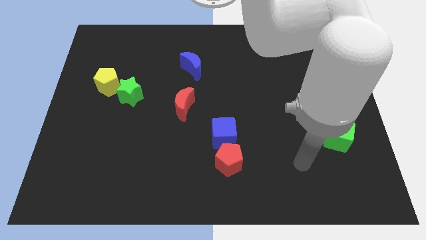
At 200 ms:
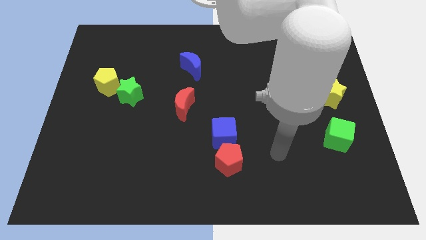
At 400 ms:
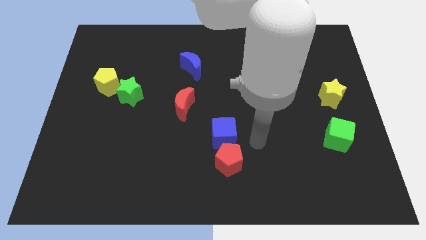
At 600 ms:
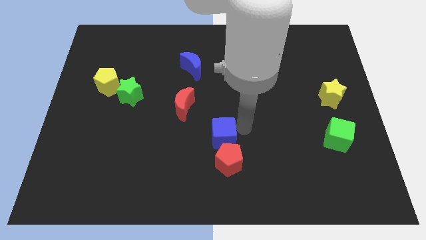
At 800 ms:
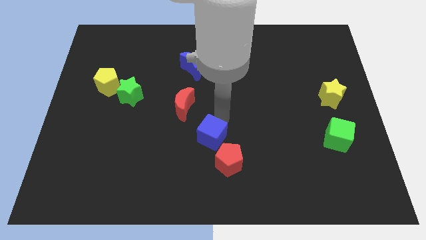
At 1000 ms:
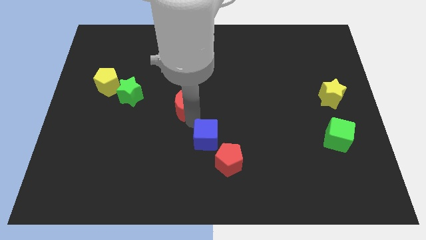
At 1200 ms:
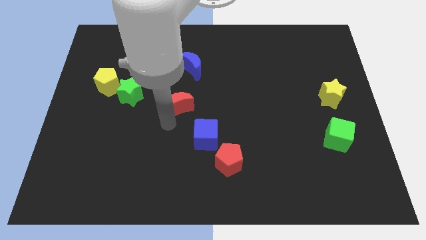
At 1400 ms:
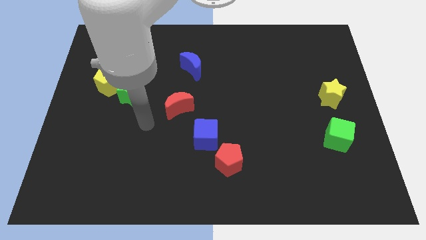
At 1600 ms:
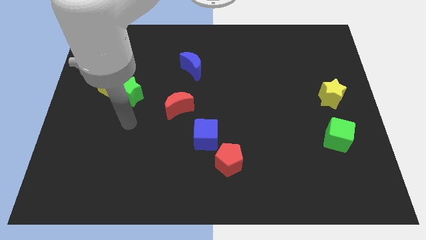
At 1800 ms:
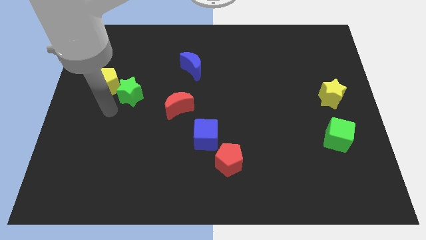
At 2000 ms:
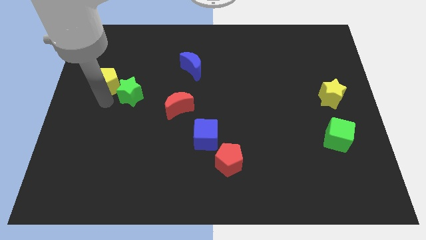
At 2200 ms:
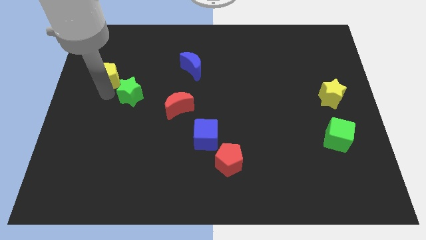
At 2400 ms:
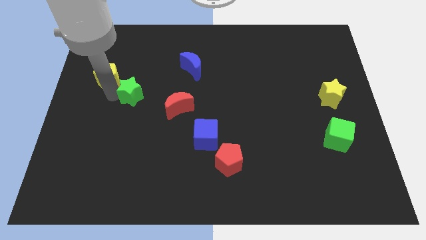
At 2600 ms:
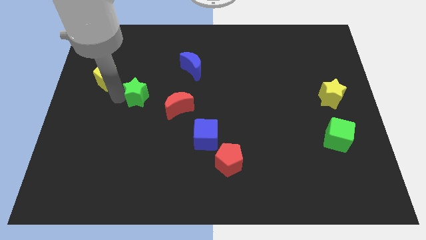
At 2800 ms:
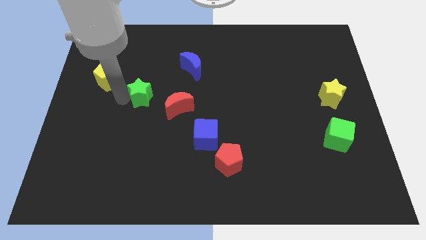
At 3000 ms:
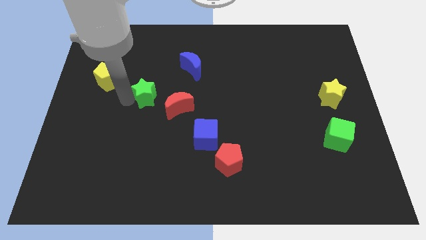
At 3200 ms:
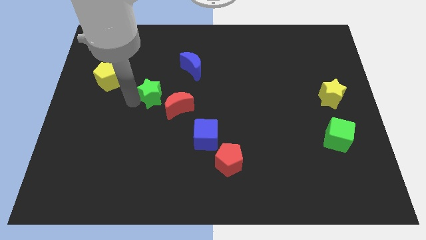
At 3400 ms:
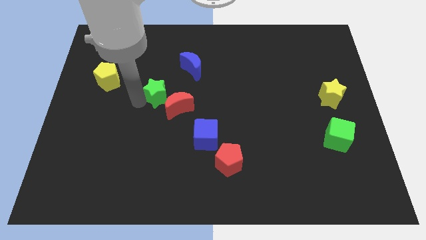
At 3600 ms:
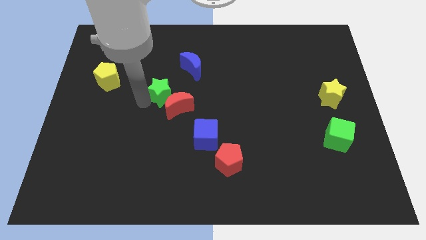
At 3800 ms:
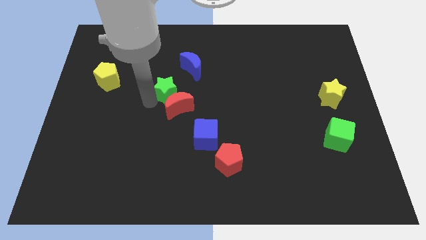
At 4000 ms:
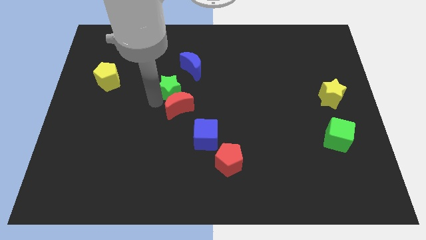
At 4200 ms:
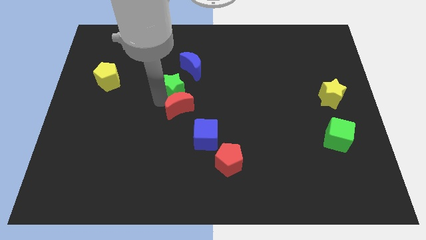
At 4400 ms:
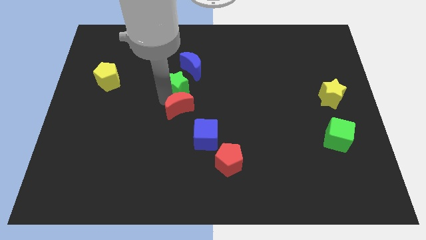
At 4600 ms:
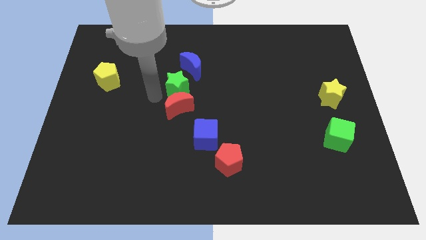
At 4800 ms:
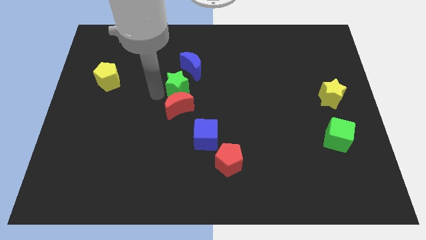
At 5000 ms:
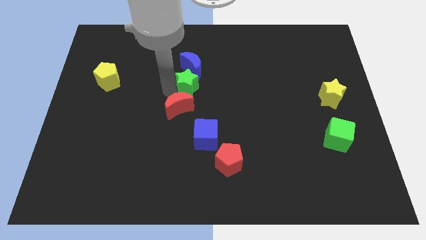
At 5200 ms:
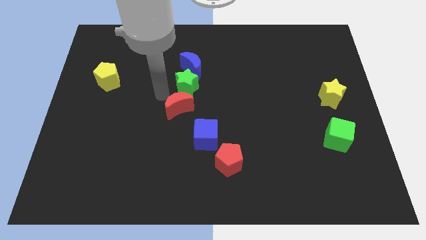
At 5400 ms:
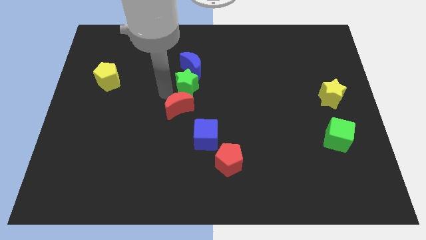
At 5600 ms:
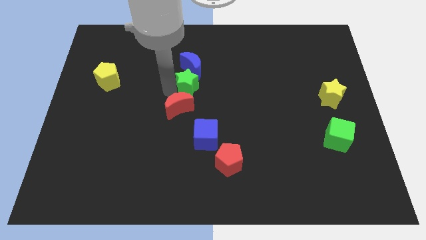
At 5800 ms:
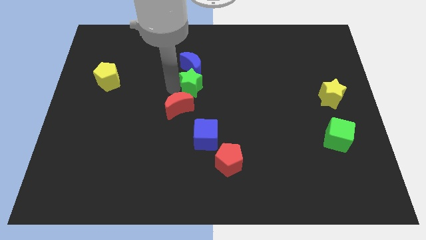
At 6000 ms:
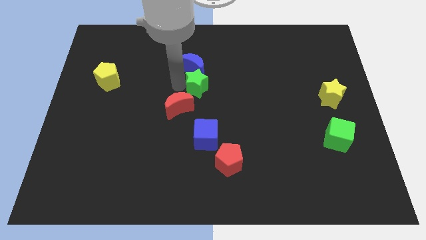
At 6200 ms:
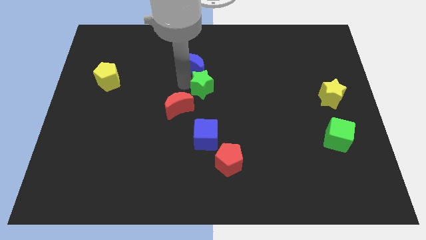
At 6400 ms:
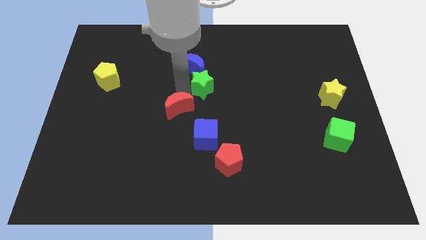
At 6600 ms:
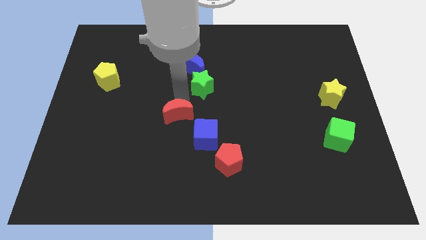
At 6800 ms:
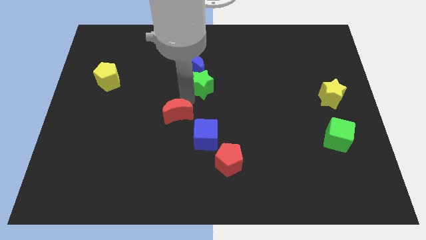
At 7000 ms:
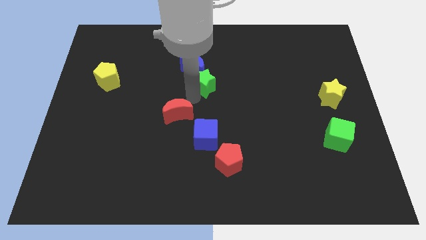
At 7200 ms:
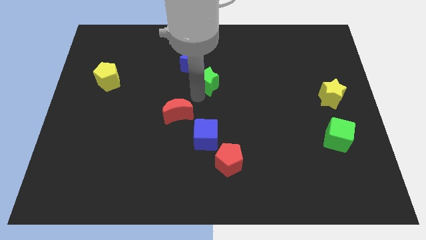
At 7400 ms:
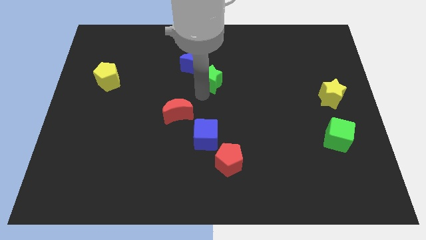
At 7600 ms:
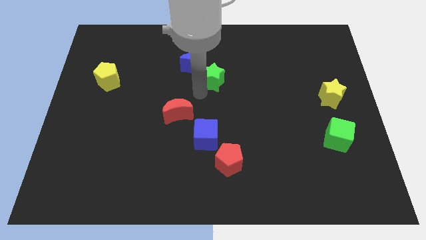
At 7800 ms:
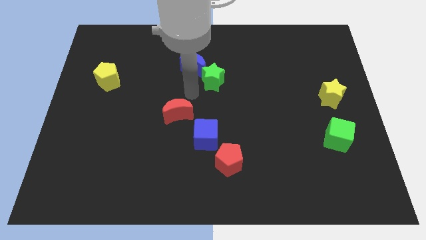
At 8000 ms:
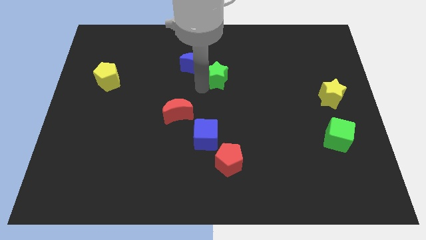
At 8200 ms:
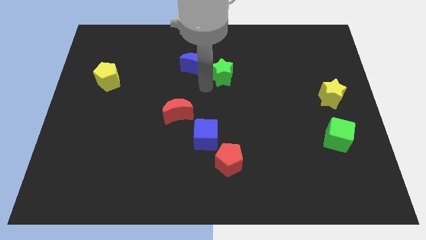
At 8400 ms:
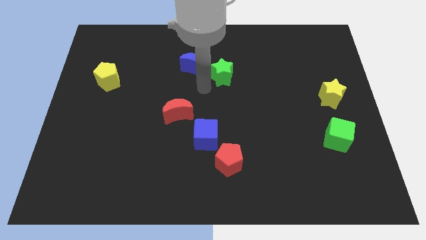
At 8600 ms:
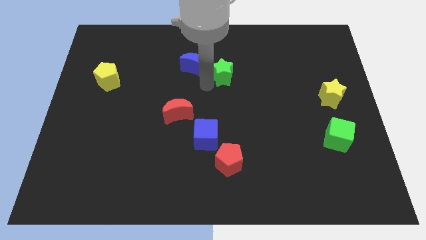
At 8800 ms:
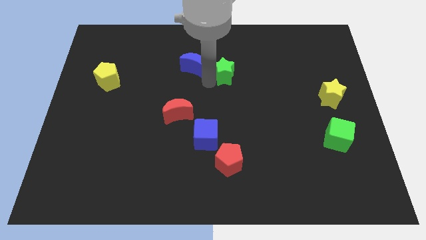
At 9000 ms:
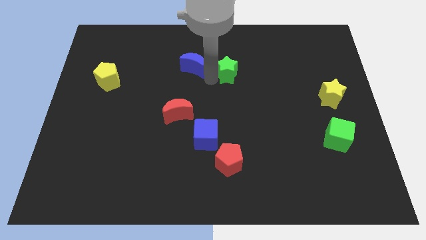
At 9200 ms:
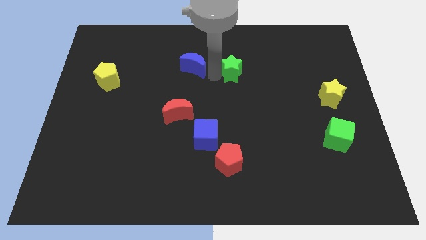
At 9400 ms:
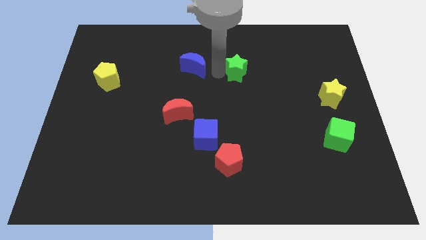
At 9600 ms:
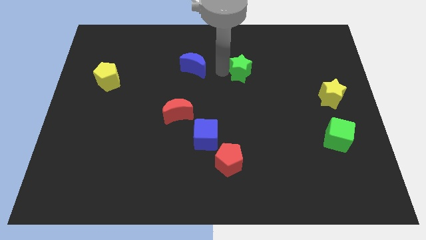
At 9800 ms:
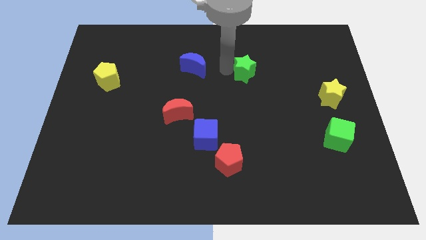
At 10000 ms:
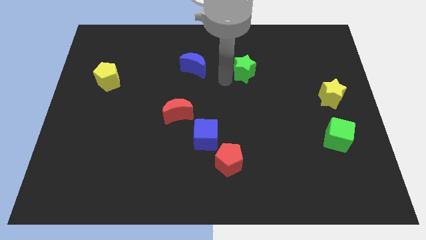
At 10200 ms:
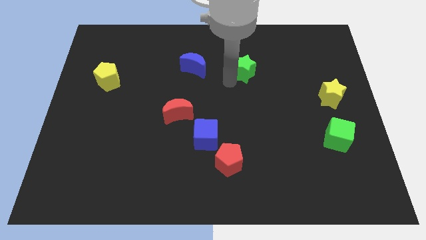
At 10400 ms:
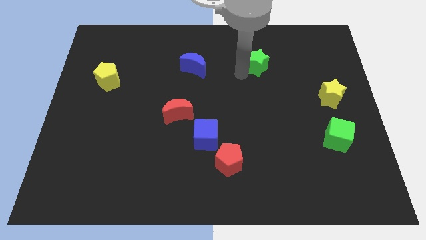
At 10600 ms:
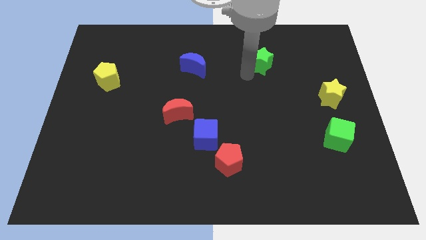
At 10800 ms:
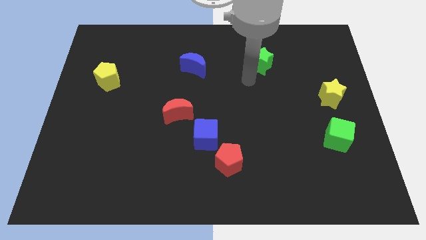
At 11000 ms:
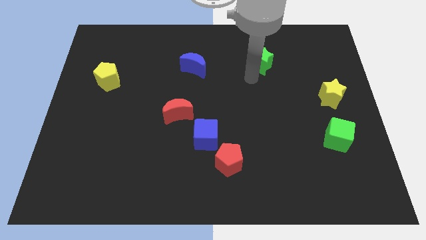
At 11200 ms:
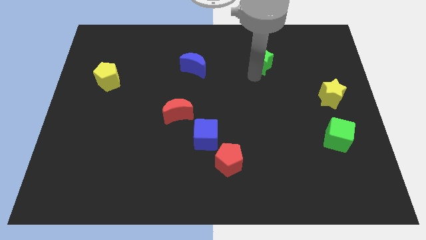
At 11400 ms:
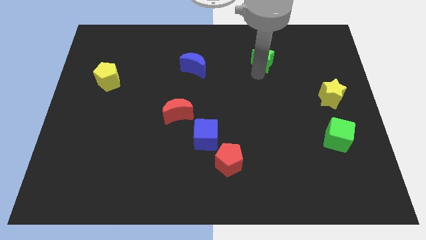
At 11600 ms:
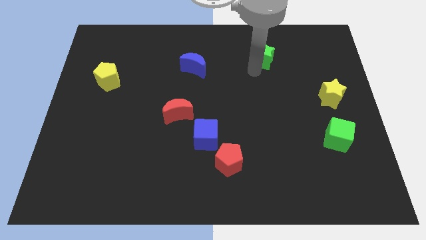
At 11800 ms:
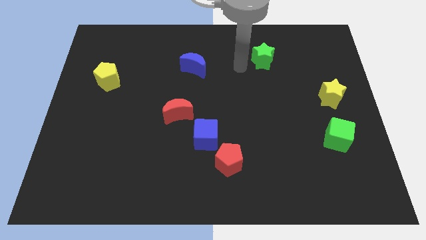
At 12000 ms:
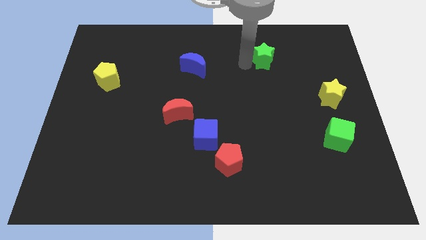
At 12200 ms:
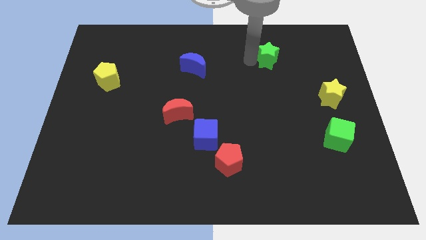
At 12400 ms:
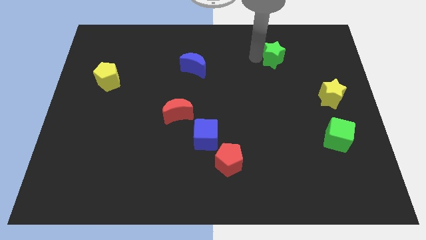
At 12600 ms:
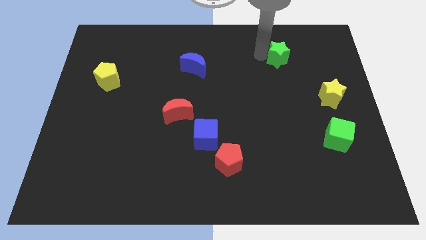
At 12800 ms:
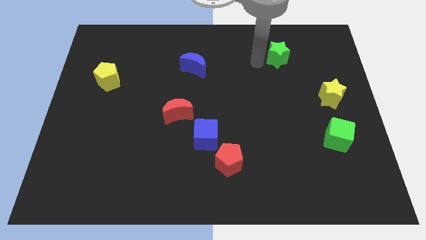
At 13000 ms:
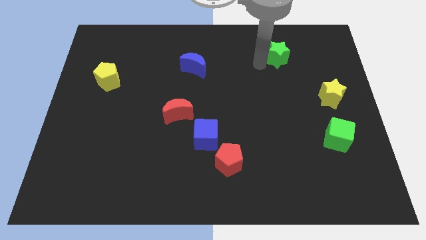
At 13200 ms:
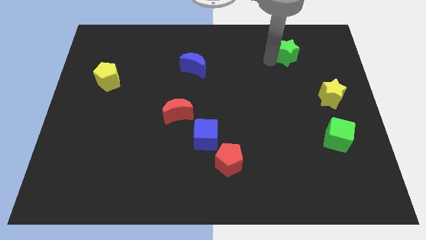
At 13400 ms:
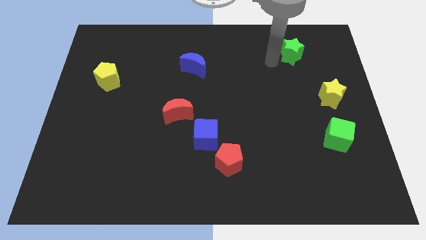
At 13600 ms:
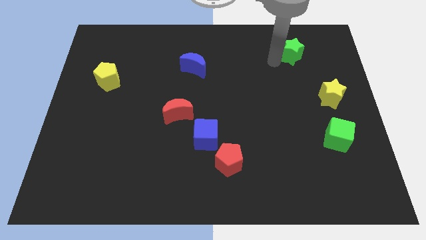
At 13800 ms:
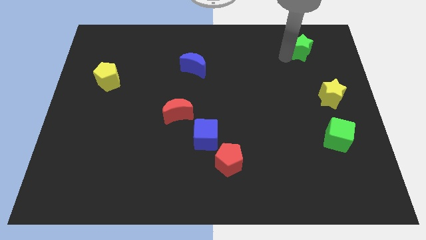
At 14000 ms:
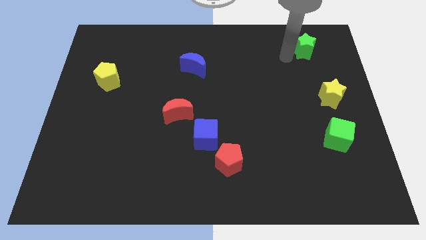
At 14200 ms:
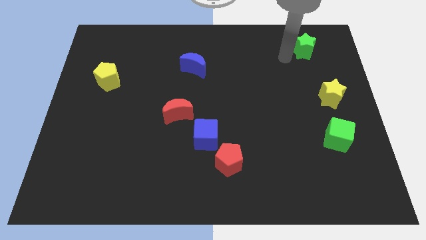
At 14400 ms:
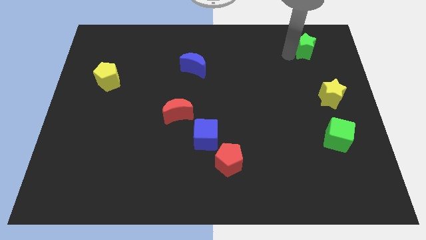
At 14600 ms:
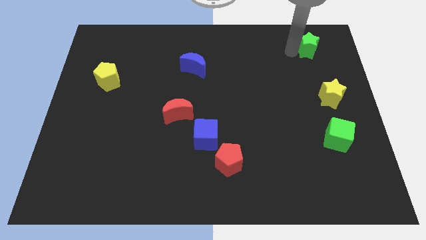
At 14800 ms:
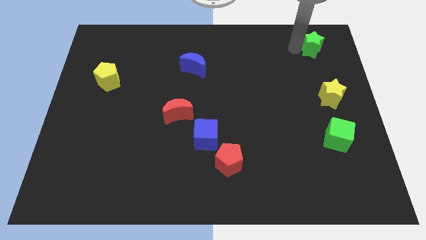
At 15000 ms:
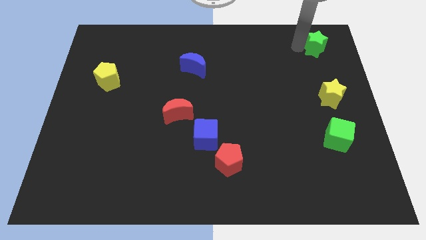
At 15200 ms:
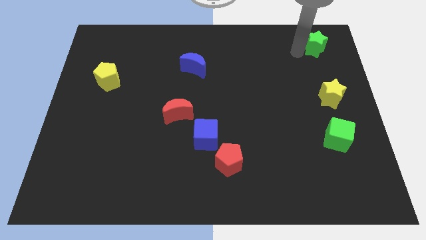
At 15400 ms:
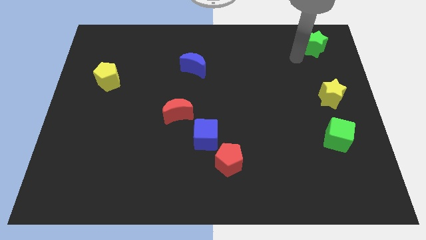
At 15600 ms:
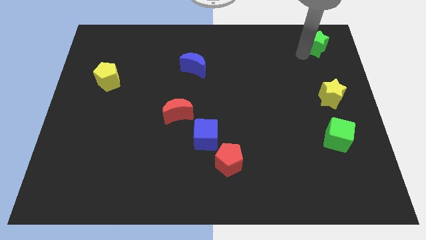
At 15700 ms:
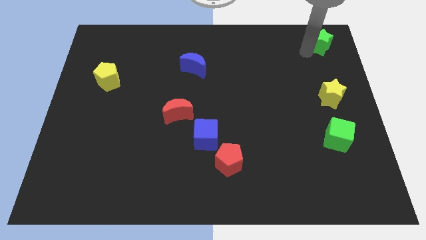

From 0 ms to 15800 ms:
push the green star to the top right
